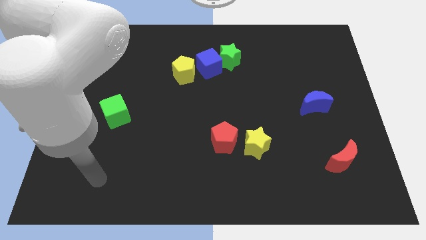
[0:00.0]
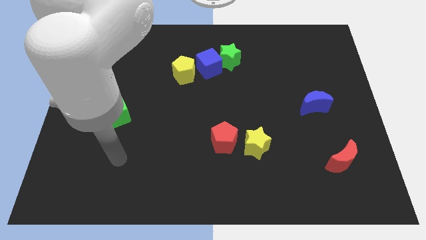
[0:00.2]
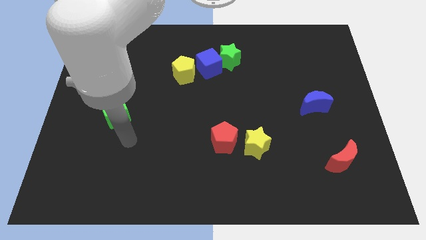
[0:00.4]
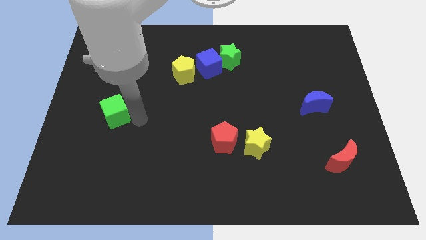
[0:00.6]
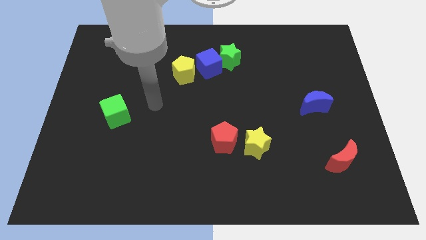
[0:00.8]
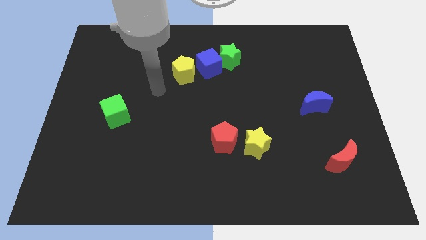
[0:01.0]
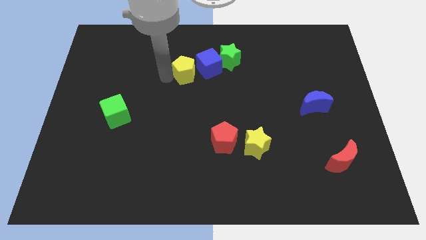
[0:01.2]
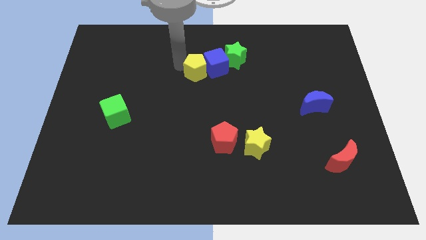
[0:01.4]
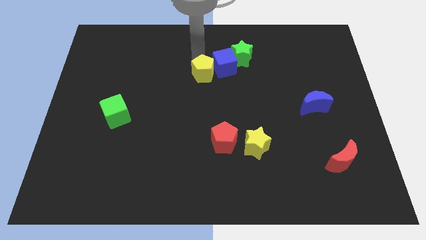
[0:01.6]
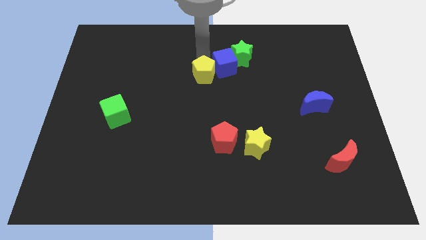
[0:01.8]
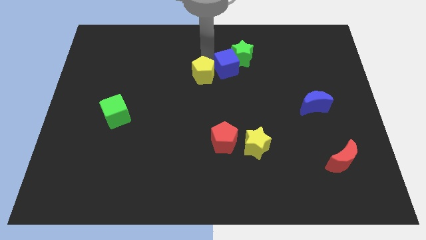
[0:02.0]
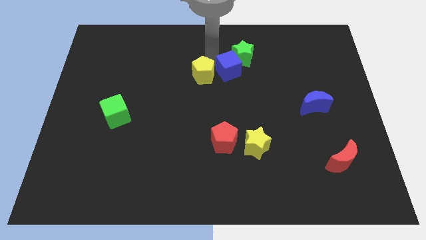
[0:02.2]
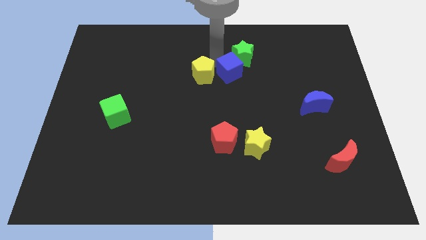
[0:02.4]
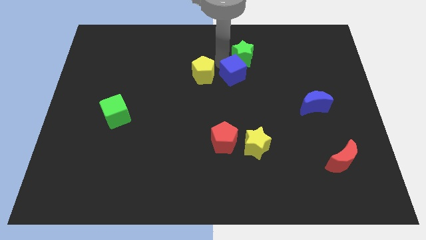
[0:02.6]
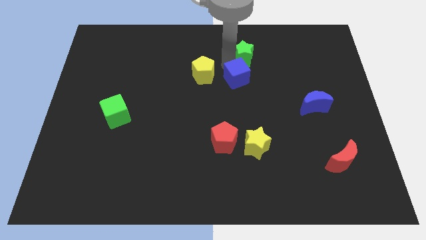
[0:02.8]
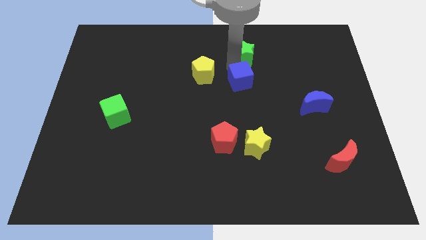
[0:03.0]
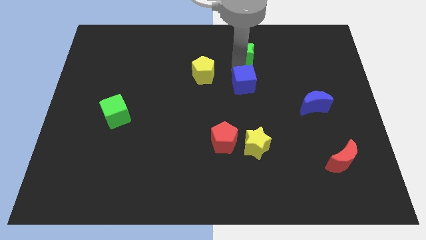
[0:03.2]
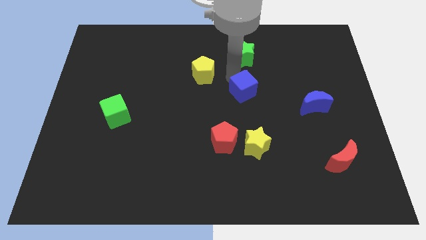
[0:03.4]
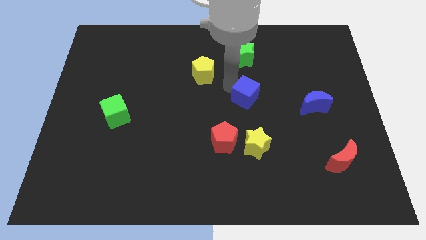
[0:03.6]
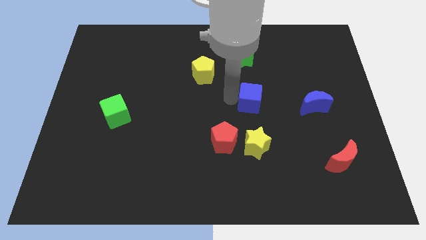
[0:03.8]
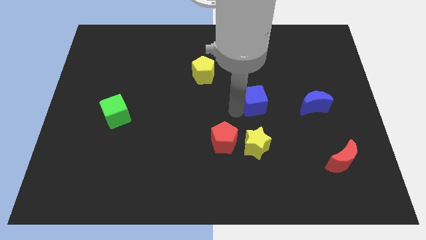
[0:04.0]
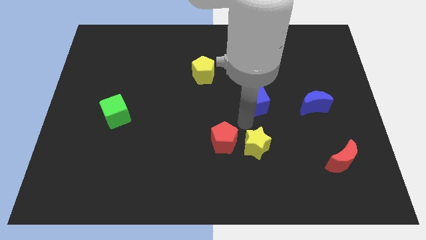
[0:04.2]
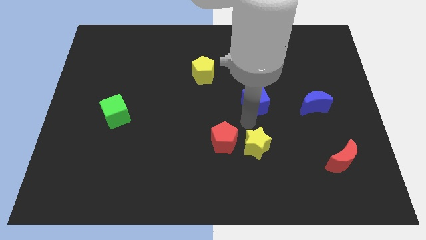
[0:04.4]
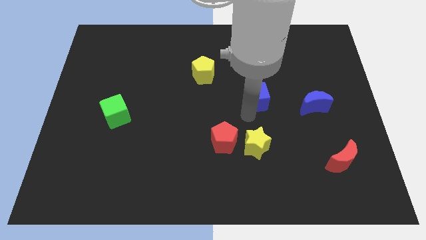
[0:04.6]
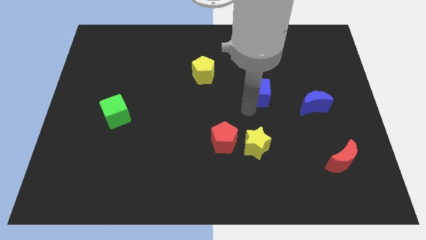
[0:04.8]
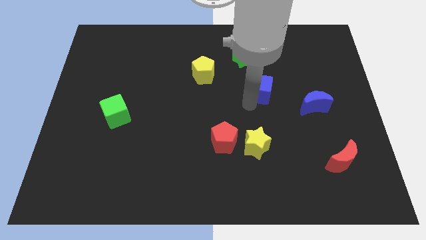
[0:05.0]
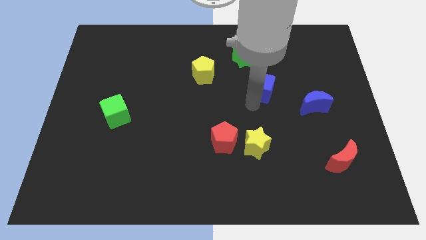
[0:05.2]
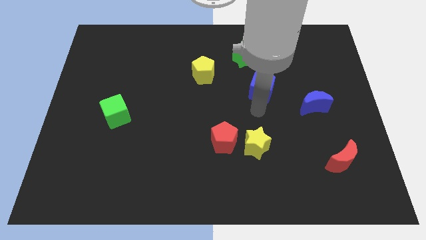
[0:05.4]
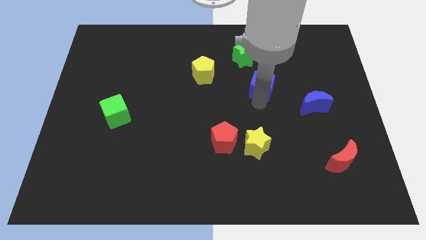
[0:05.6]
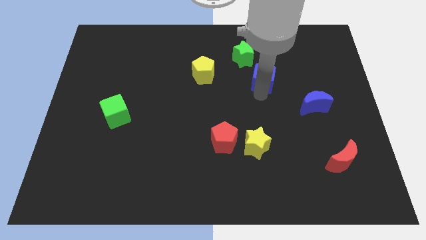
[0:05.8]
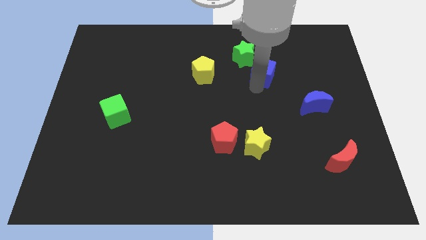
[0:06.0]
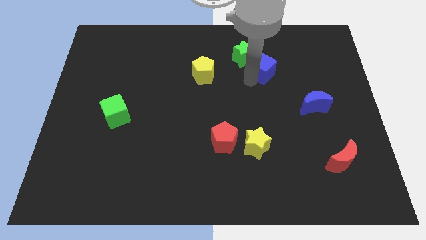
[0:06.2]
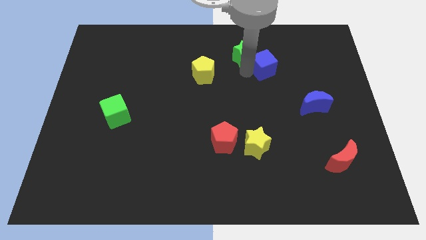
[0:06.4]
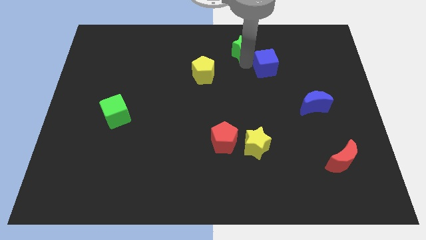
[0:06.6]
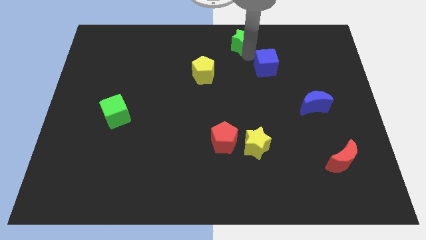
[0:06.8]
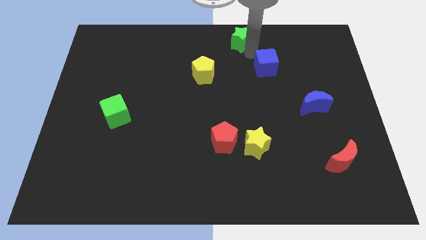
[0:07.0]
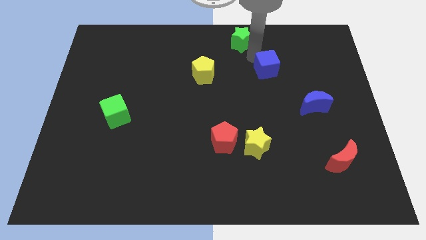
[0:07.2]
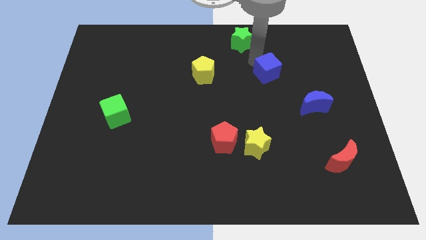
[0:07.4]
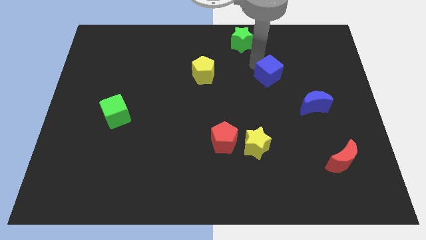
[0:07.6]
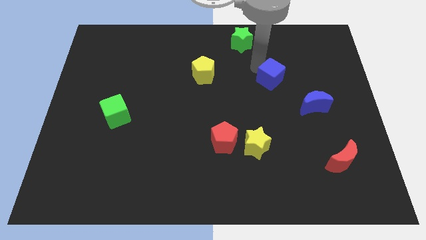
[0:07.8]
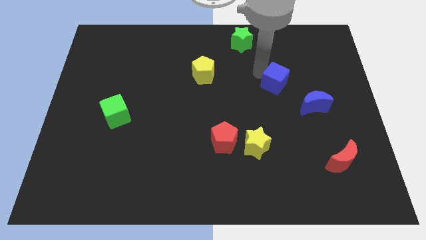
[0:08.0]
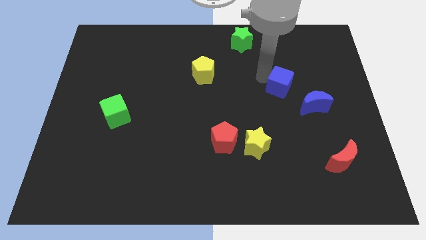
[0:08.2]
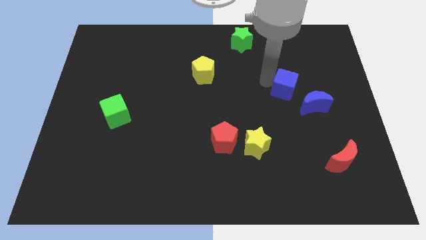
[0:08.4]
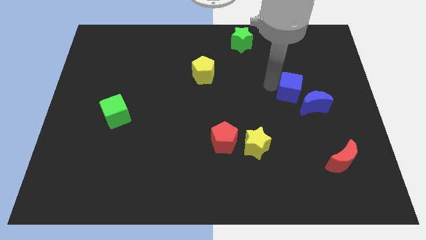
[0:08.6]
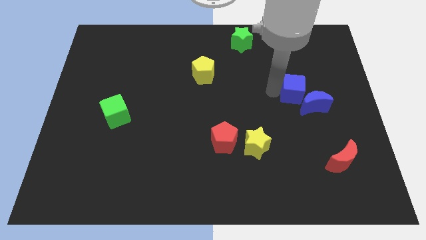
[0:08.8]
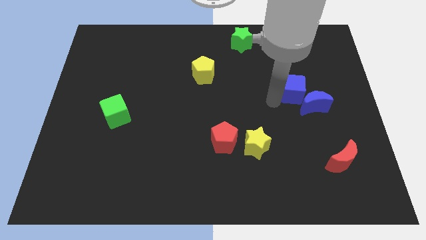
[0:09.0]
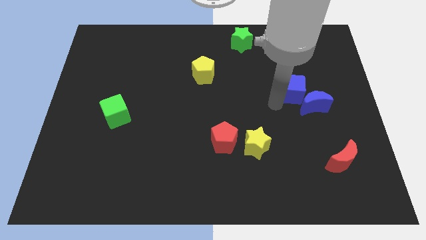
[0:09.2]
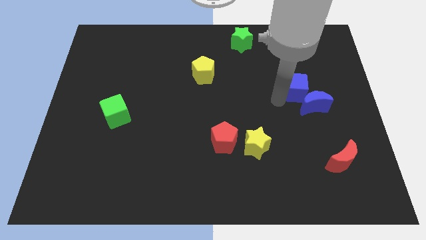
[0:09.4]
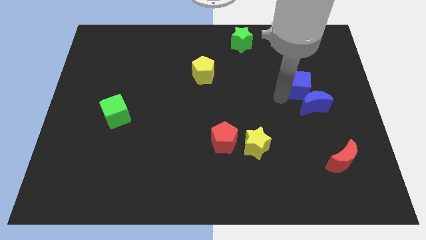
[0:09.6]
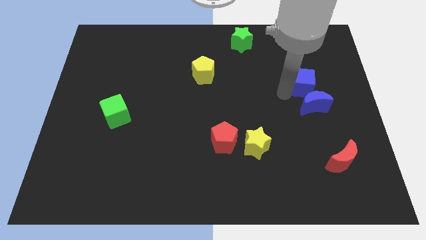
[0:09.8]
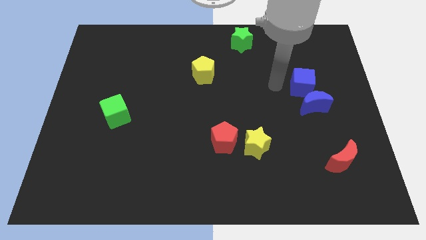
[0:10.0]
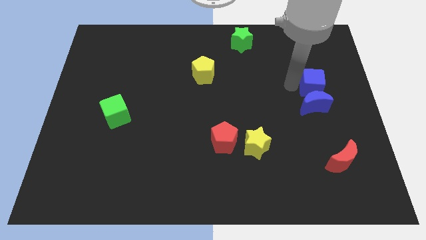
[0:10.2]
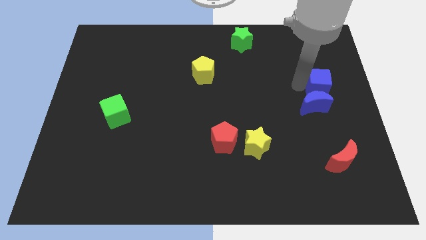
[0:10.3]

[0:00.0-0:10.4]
move the blue cube to the center right

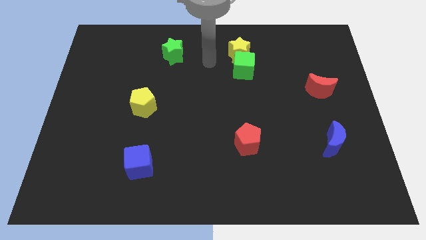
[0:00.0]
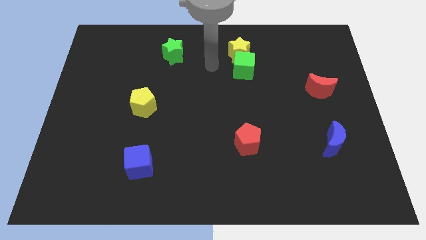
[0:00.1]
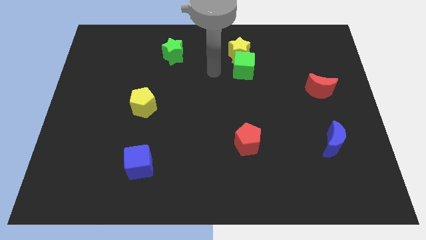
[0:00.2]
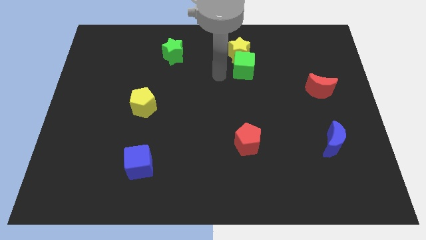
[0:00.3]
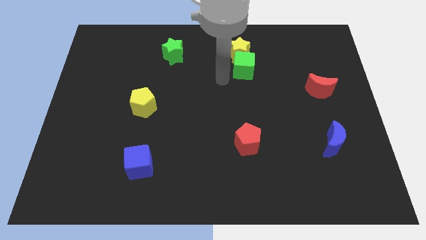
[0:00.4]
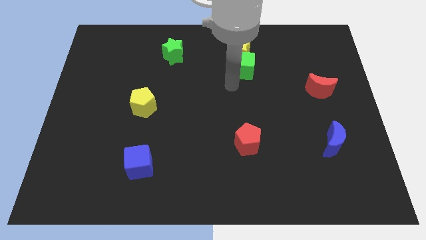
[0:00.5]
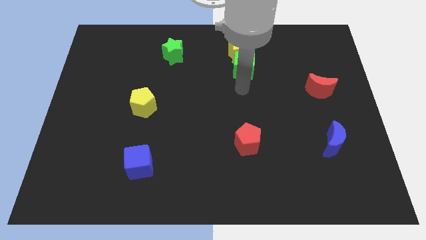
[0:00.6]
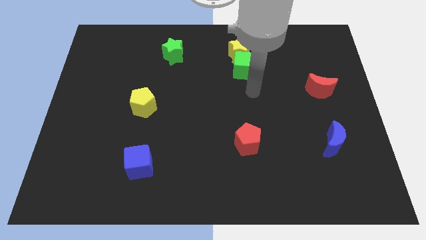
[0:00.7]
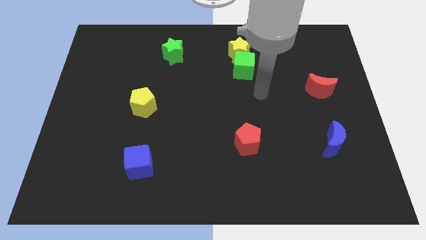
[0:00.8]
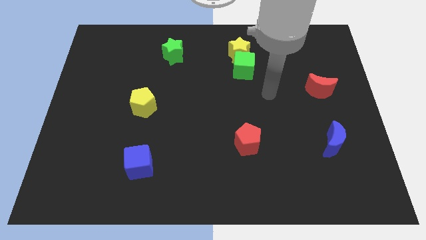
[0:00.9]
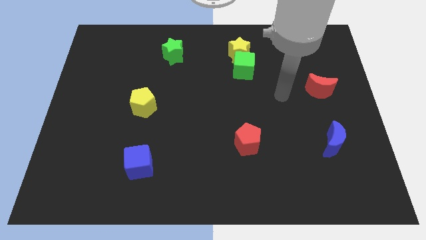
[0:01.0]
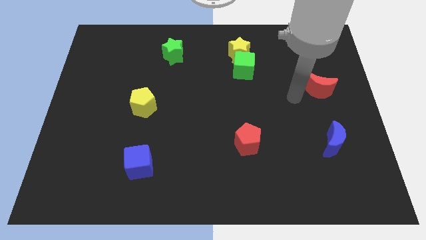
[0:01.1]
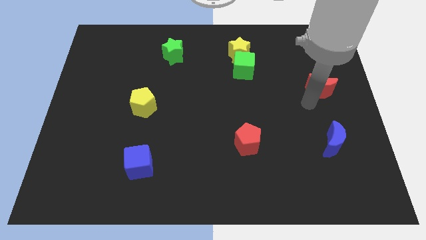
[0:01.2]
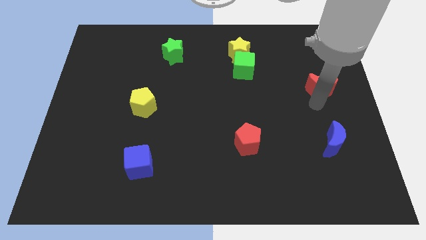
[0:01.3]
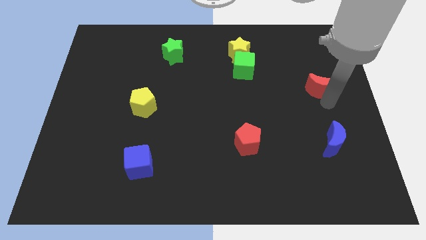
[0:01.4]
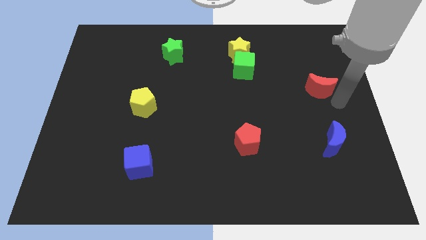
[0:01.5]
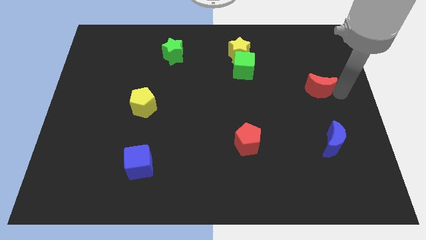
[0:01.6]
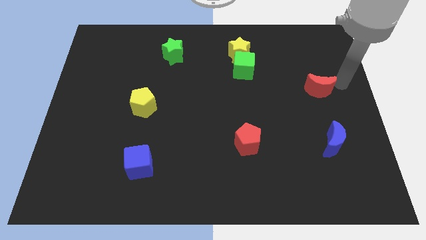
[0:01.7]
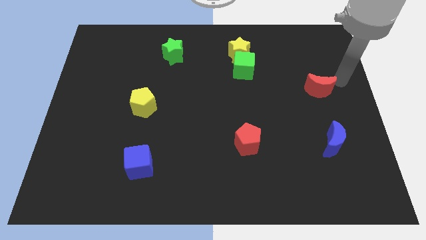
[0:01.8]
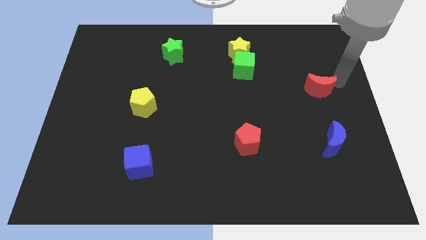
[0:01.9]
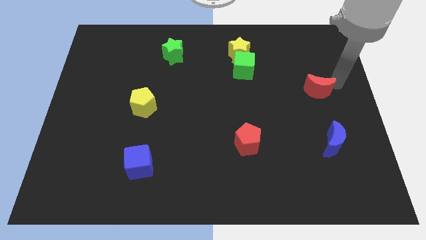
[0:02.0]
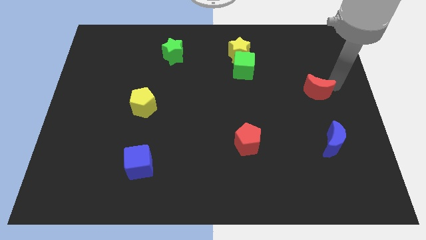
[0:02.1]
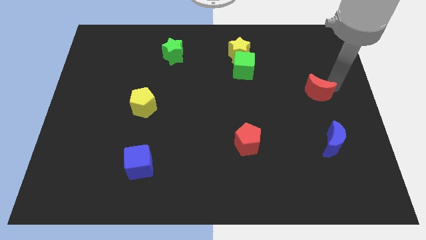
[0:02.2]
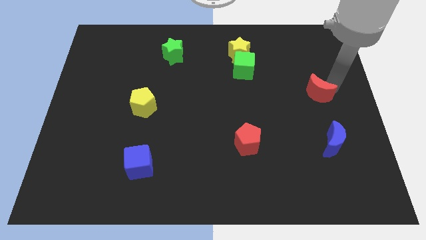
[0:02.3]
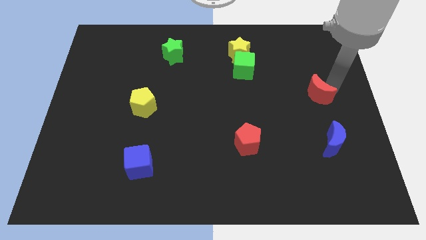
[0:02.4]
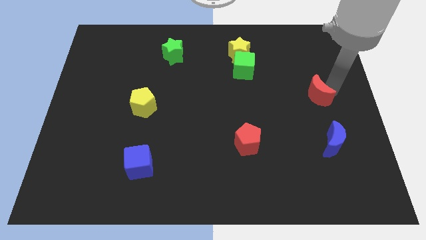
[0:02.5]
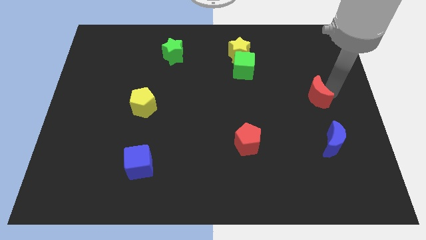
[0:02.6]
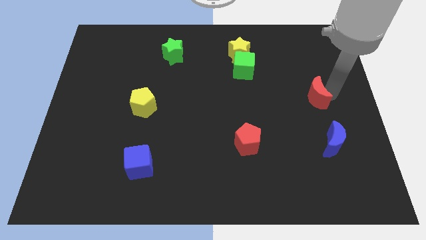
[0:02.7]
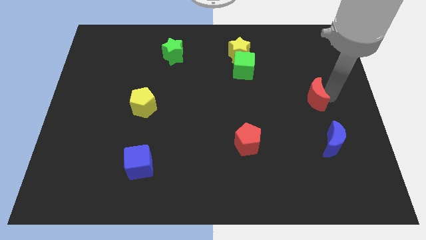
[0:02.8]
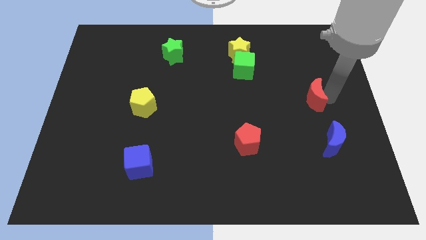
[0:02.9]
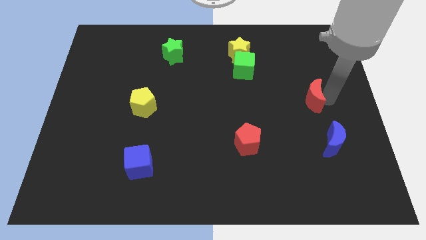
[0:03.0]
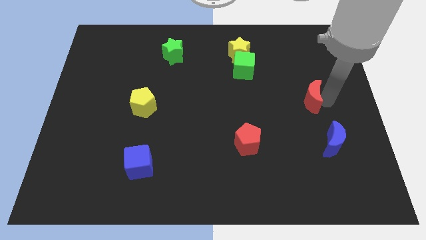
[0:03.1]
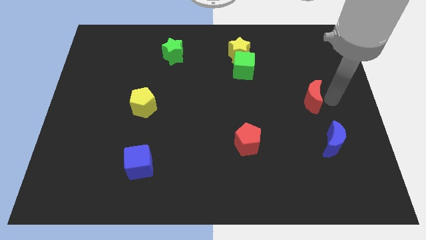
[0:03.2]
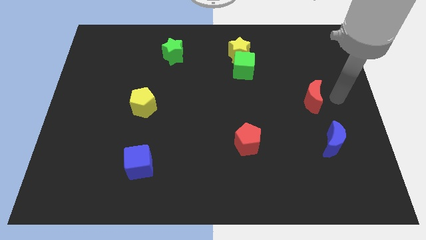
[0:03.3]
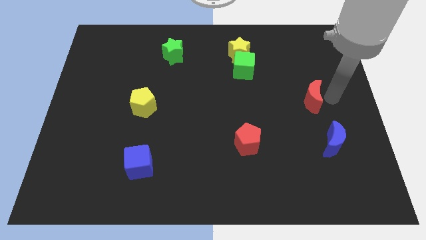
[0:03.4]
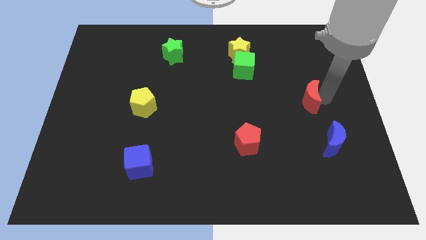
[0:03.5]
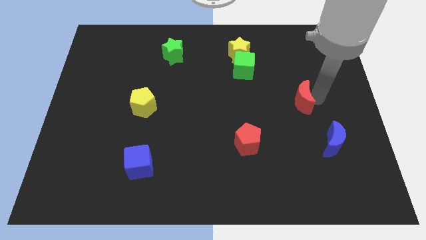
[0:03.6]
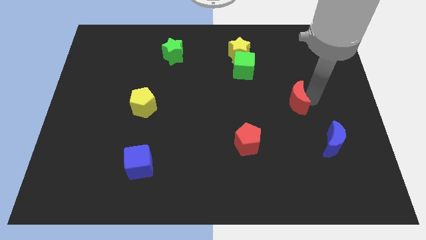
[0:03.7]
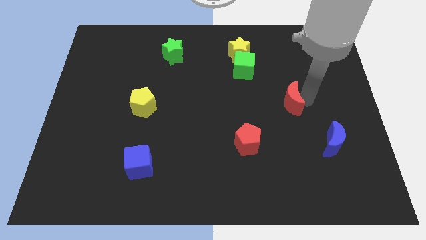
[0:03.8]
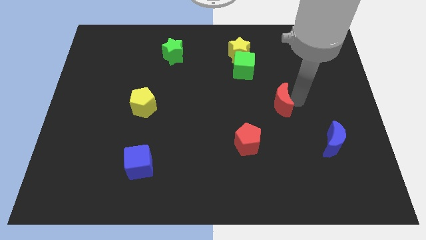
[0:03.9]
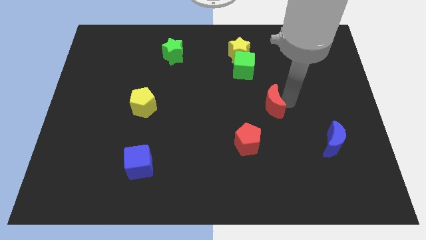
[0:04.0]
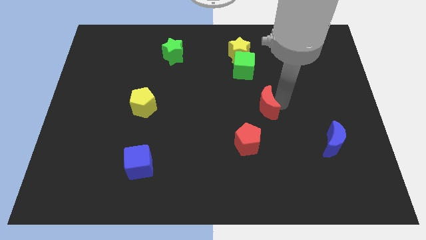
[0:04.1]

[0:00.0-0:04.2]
put the red moon to the center
